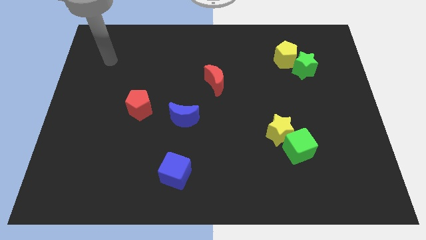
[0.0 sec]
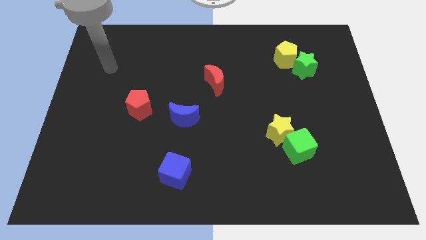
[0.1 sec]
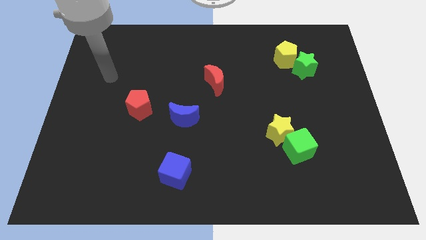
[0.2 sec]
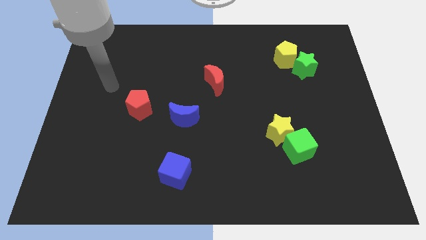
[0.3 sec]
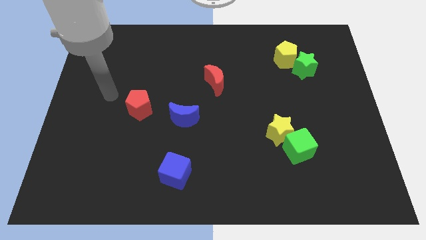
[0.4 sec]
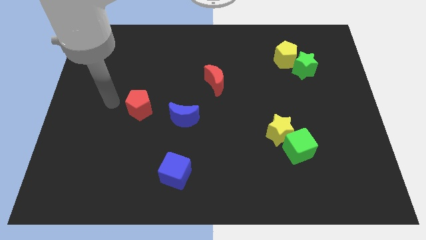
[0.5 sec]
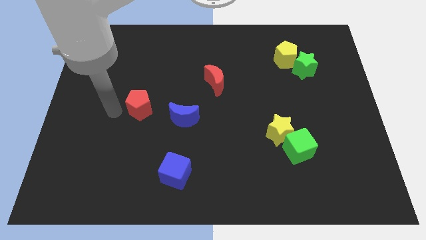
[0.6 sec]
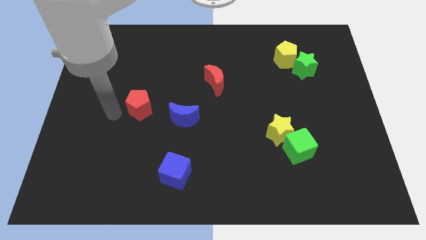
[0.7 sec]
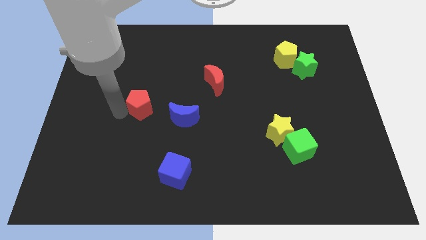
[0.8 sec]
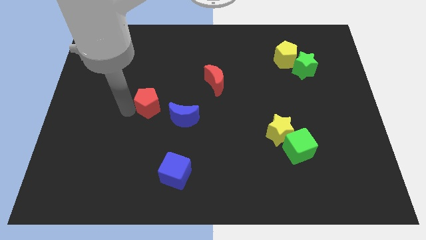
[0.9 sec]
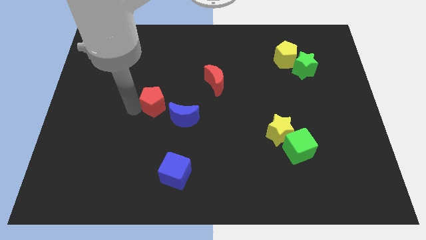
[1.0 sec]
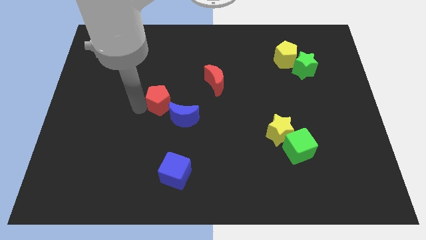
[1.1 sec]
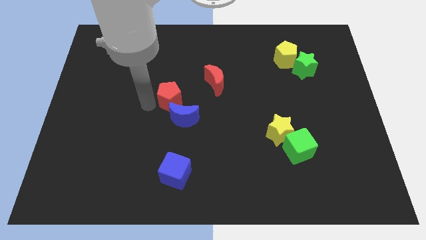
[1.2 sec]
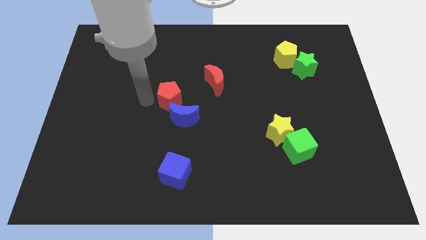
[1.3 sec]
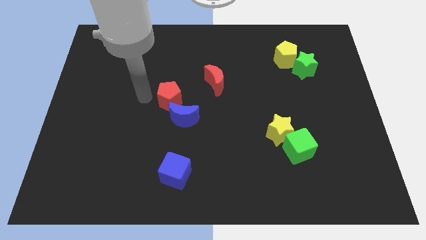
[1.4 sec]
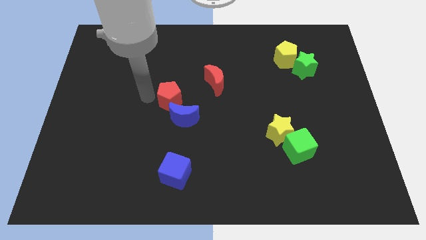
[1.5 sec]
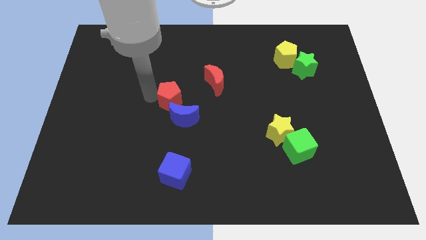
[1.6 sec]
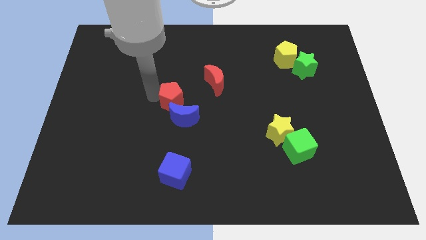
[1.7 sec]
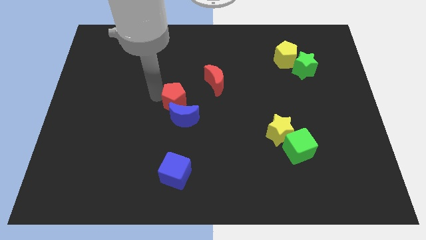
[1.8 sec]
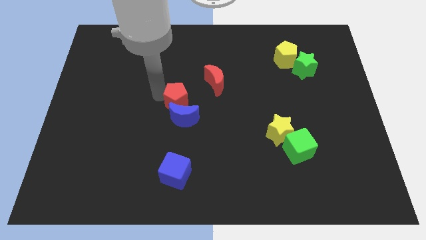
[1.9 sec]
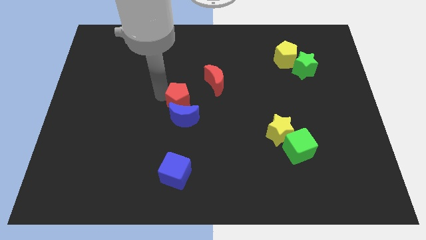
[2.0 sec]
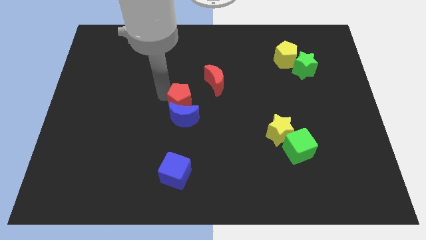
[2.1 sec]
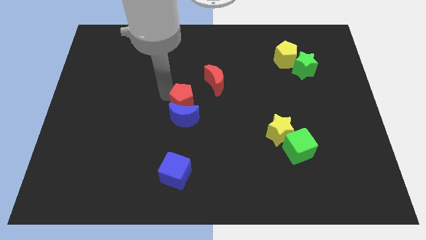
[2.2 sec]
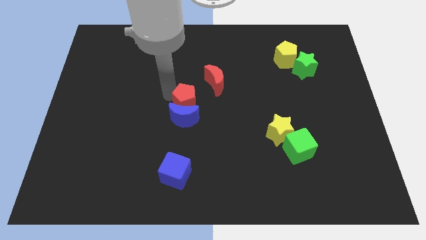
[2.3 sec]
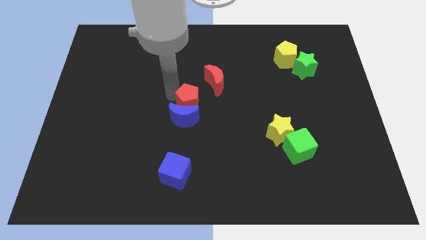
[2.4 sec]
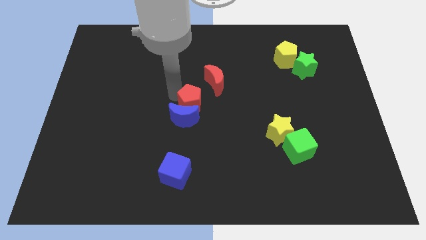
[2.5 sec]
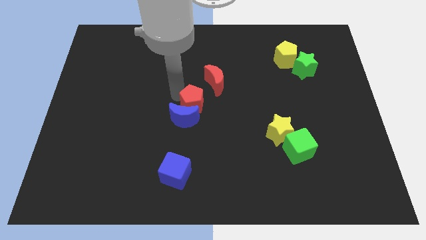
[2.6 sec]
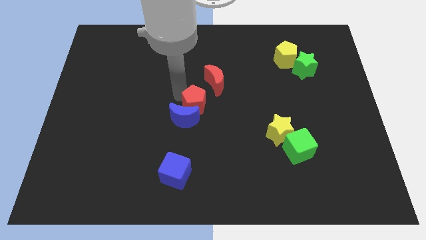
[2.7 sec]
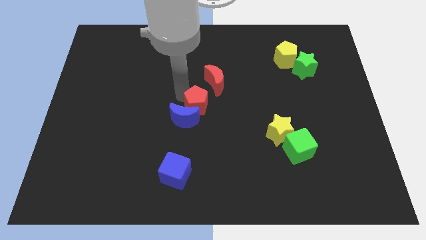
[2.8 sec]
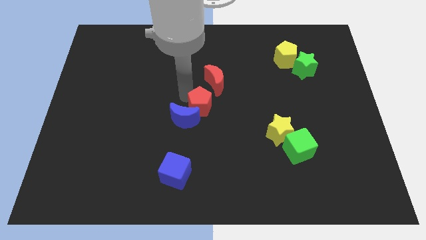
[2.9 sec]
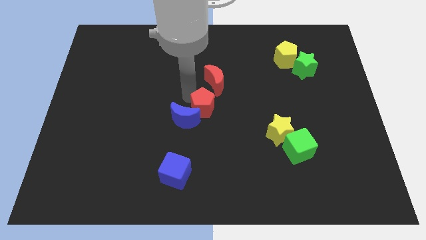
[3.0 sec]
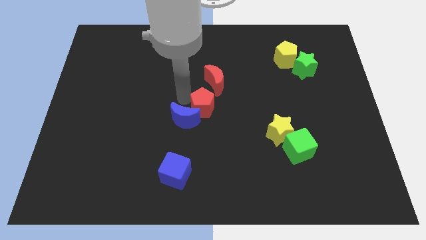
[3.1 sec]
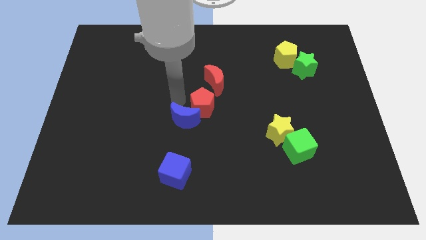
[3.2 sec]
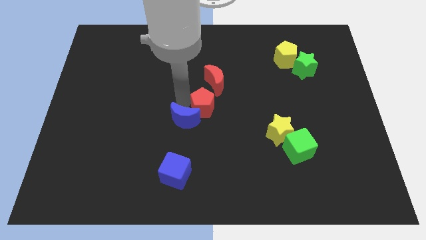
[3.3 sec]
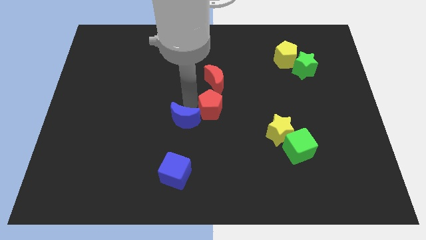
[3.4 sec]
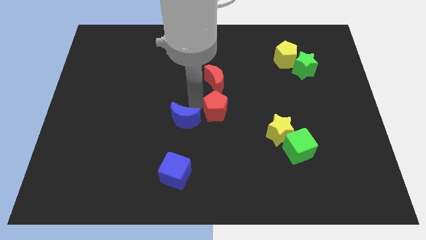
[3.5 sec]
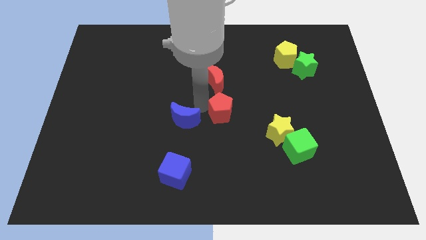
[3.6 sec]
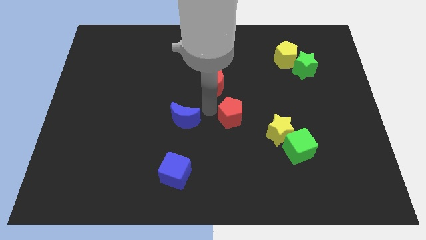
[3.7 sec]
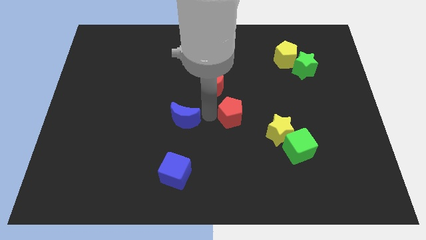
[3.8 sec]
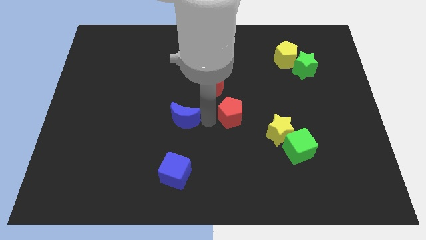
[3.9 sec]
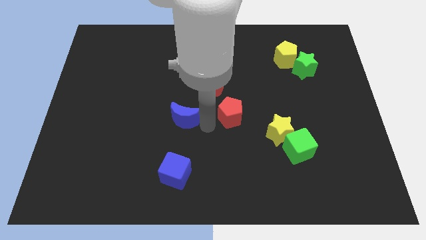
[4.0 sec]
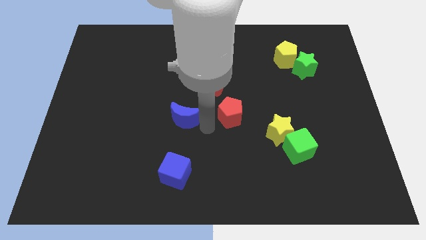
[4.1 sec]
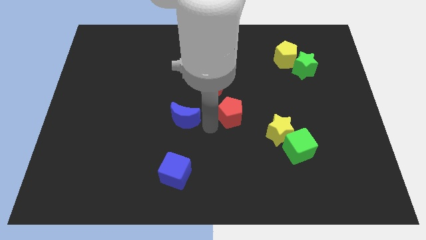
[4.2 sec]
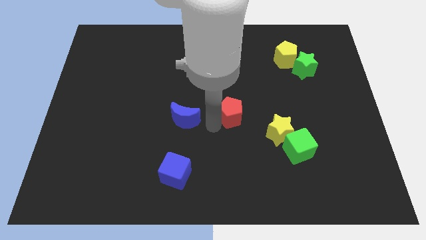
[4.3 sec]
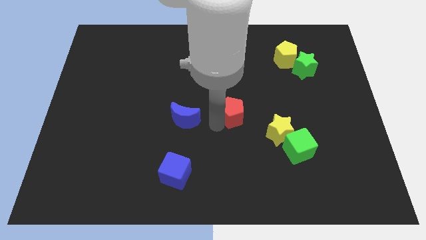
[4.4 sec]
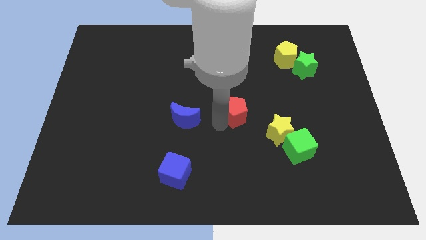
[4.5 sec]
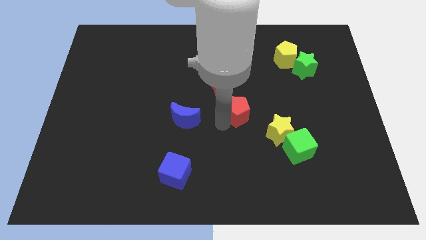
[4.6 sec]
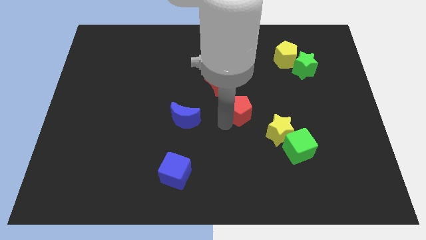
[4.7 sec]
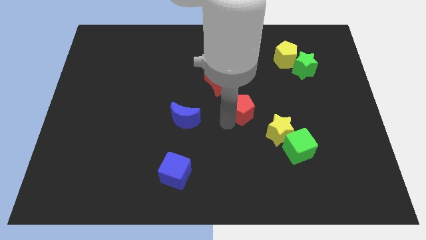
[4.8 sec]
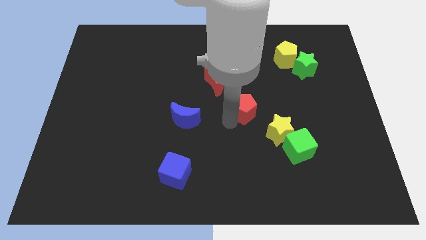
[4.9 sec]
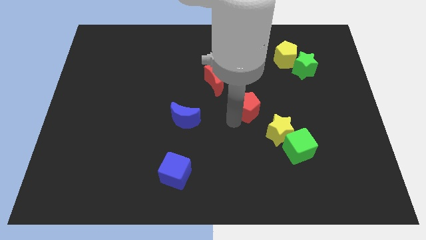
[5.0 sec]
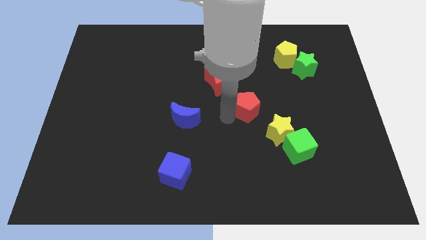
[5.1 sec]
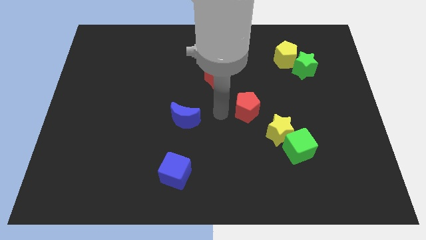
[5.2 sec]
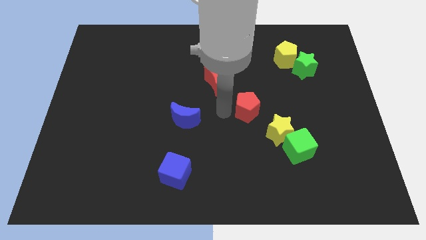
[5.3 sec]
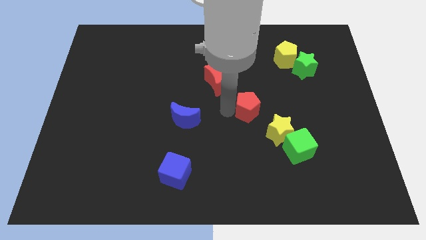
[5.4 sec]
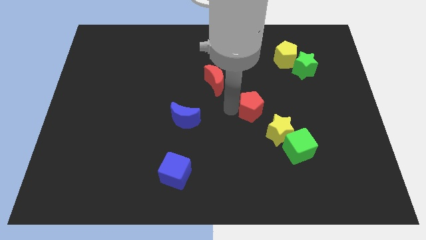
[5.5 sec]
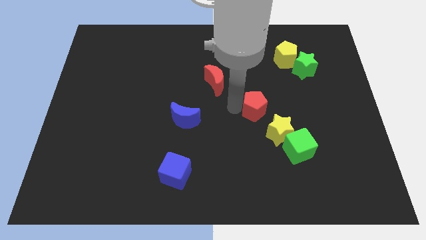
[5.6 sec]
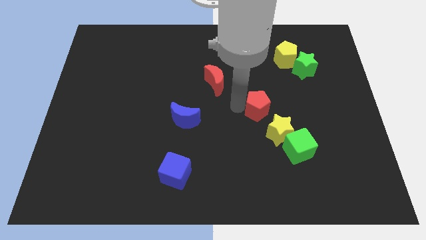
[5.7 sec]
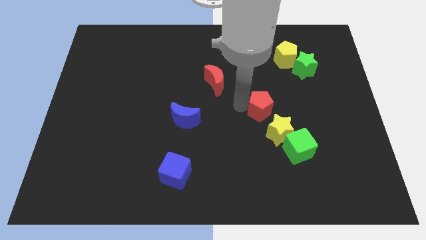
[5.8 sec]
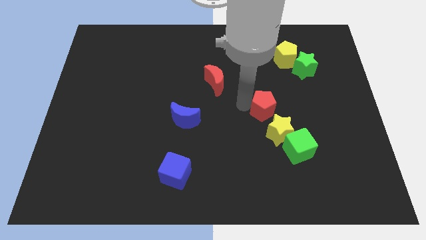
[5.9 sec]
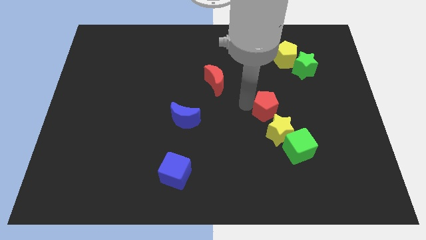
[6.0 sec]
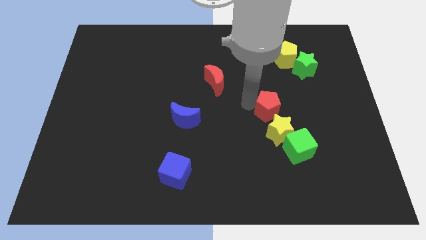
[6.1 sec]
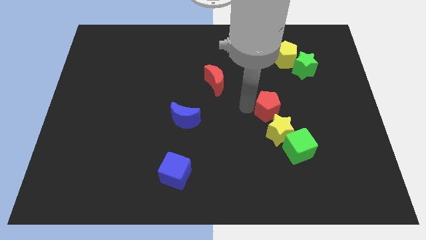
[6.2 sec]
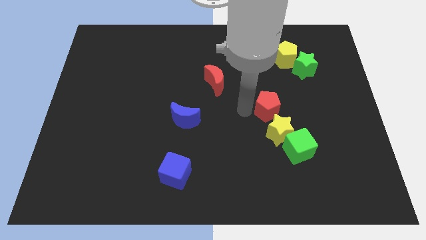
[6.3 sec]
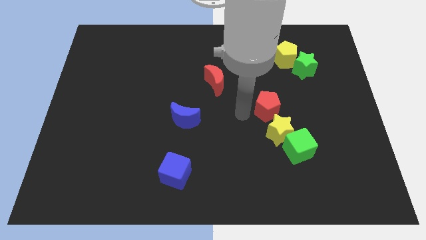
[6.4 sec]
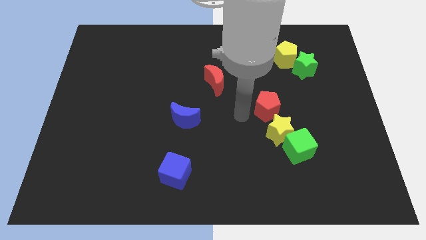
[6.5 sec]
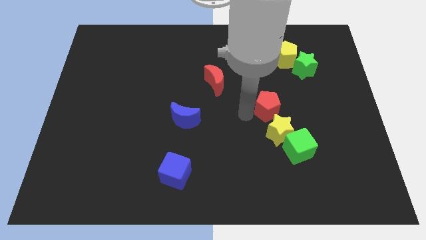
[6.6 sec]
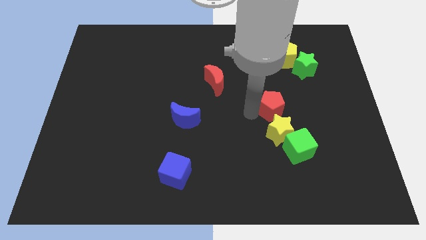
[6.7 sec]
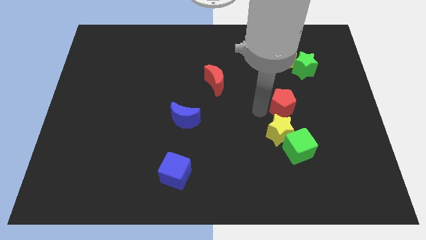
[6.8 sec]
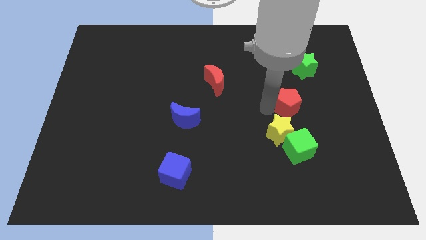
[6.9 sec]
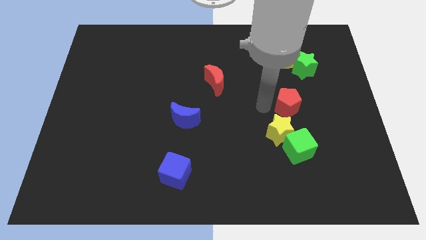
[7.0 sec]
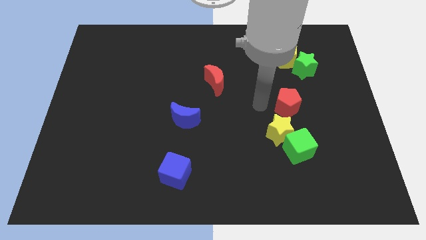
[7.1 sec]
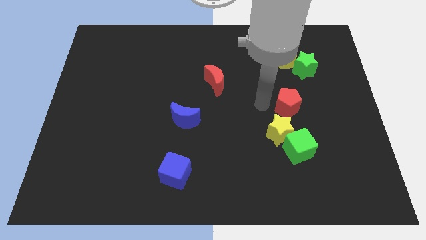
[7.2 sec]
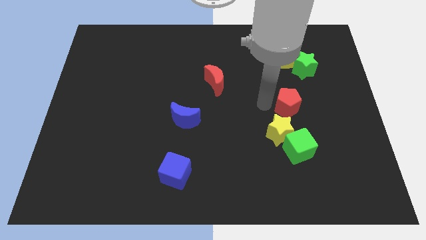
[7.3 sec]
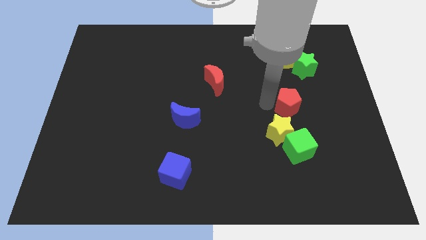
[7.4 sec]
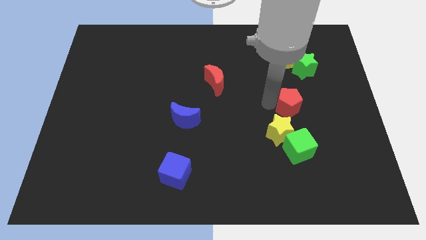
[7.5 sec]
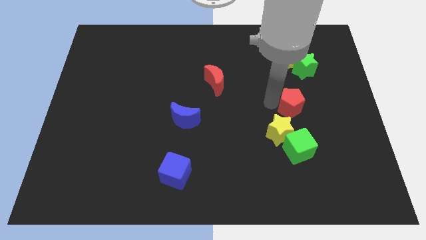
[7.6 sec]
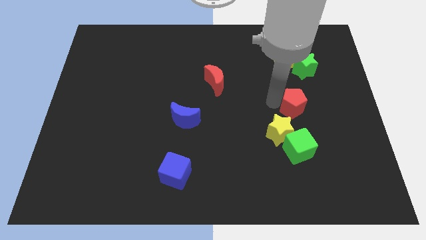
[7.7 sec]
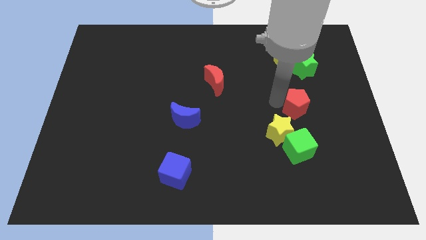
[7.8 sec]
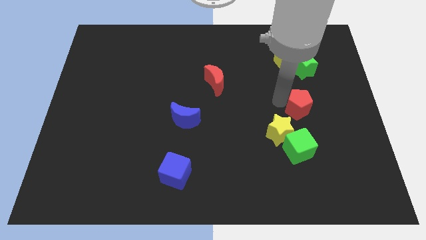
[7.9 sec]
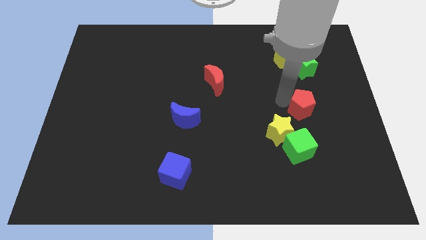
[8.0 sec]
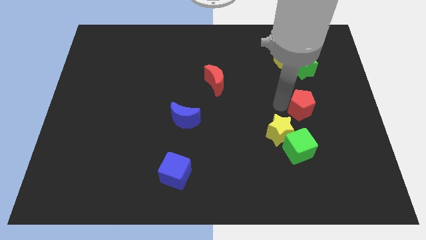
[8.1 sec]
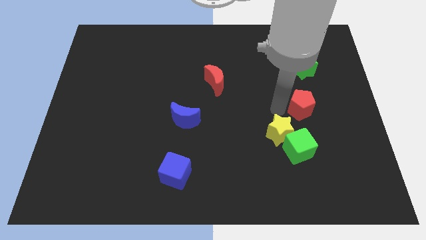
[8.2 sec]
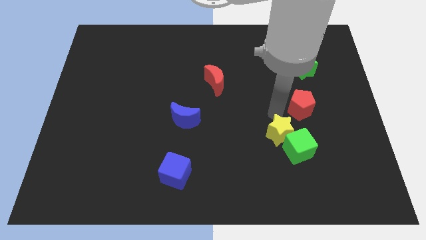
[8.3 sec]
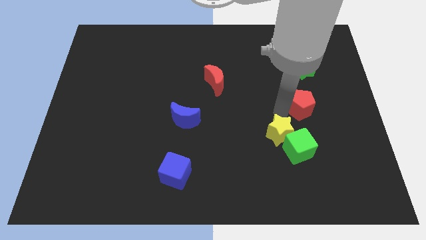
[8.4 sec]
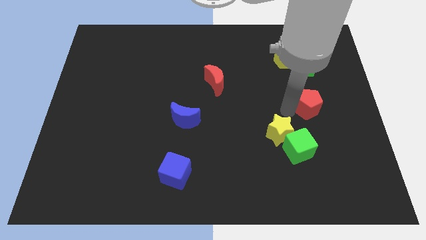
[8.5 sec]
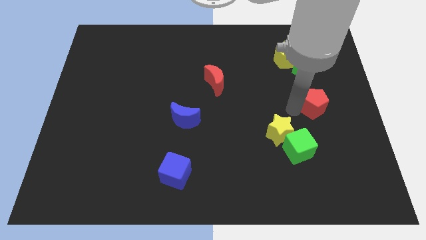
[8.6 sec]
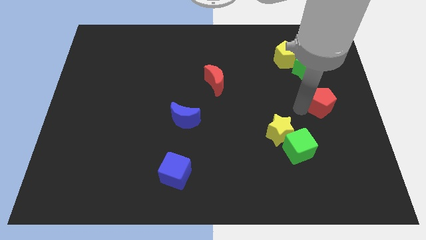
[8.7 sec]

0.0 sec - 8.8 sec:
move the red pentagon to the right side
